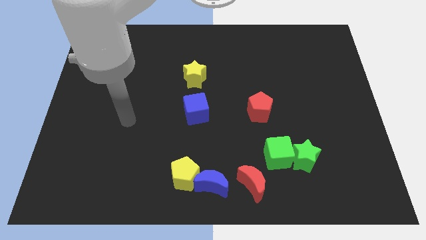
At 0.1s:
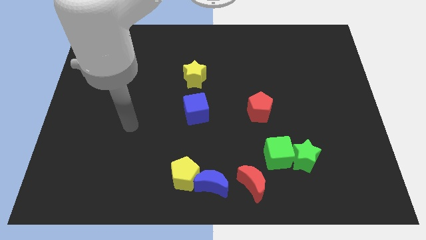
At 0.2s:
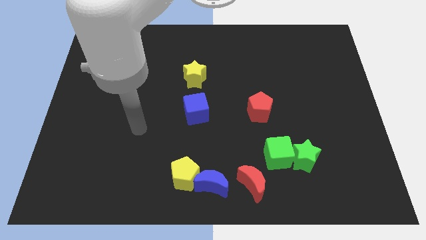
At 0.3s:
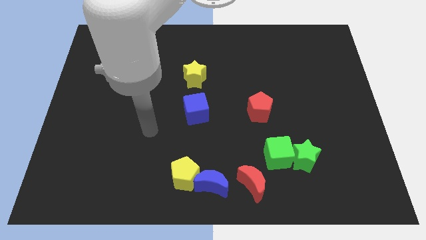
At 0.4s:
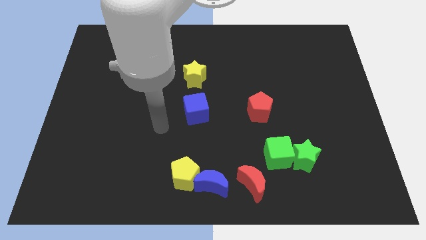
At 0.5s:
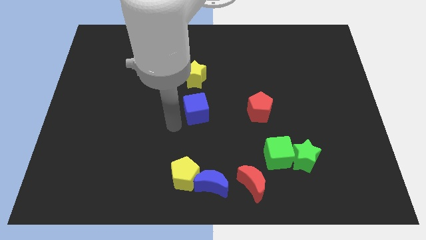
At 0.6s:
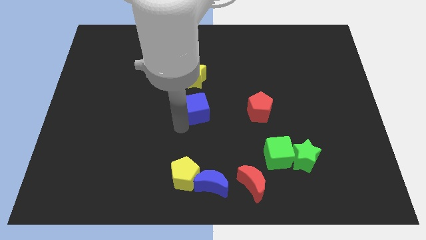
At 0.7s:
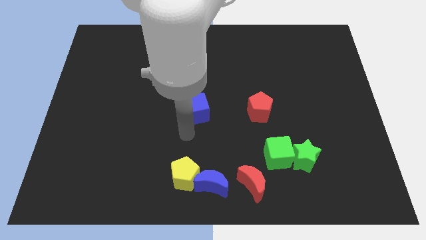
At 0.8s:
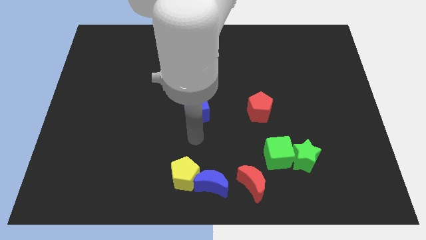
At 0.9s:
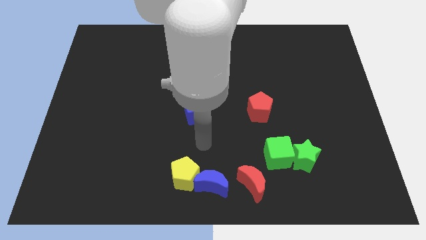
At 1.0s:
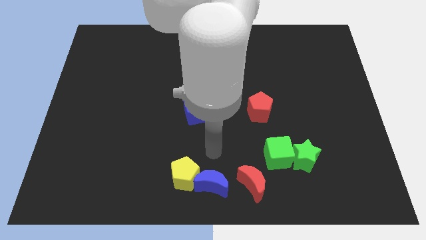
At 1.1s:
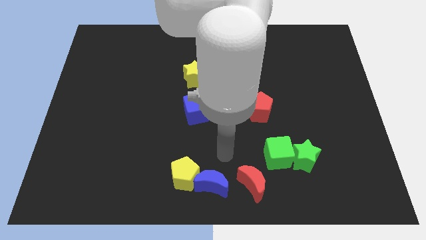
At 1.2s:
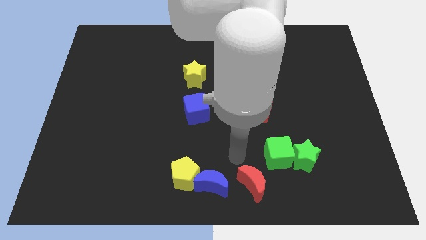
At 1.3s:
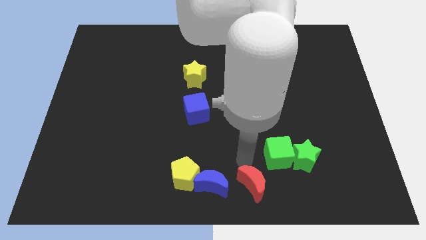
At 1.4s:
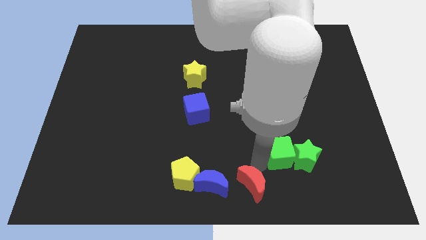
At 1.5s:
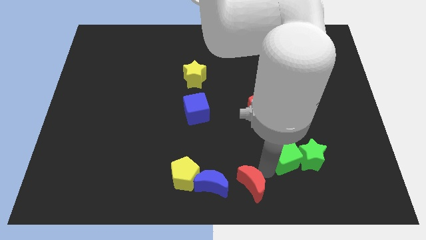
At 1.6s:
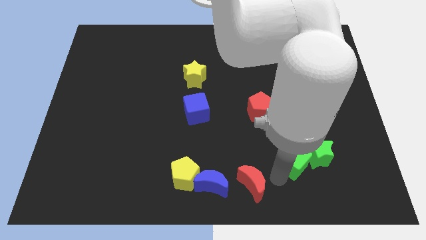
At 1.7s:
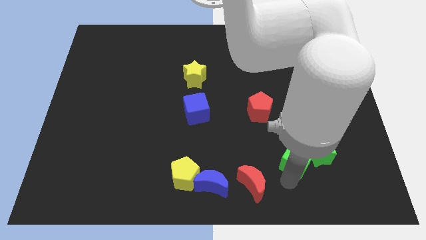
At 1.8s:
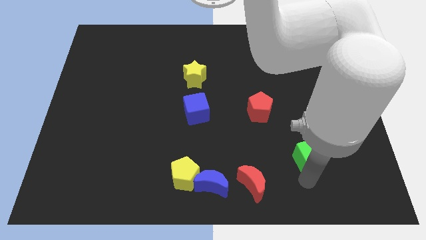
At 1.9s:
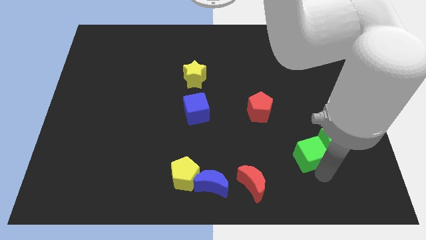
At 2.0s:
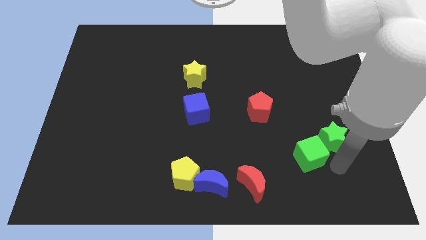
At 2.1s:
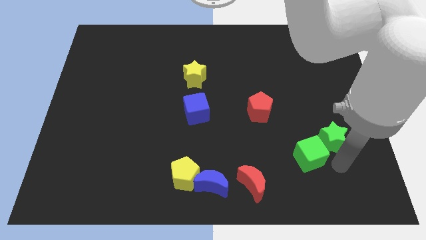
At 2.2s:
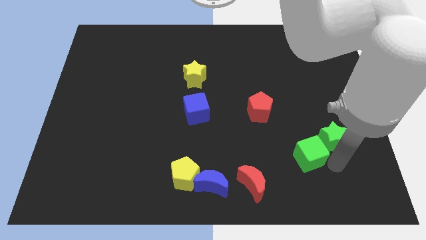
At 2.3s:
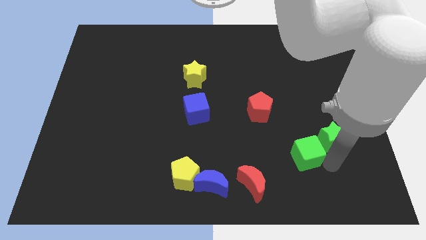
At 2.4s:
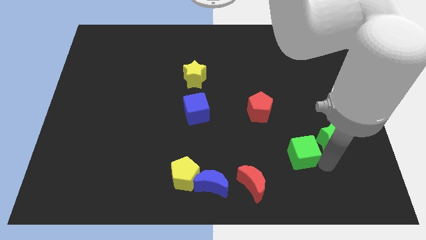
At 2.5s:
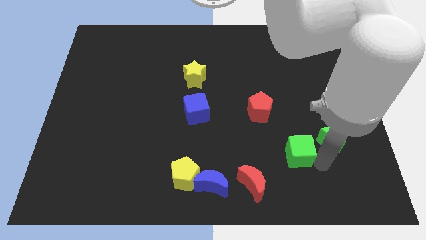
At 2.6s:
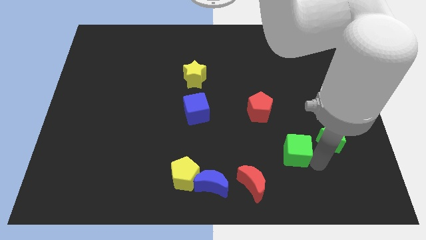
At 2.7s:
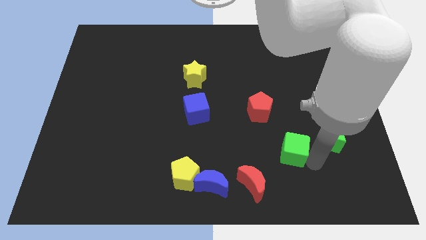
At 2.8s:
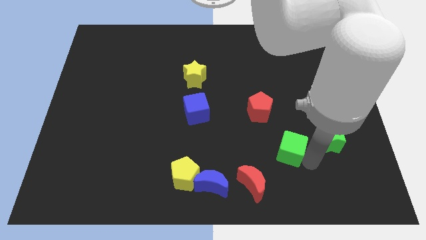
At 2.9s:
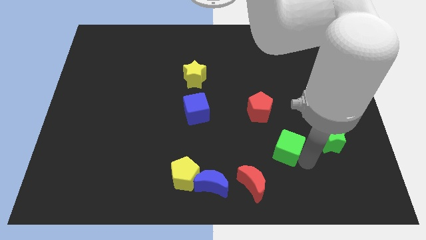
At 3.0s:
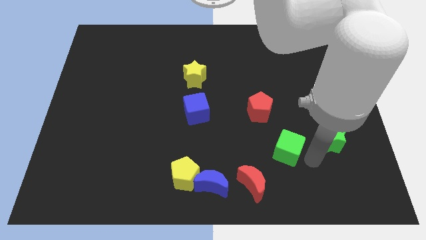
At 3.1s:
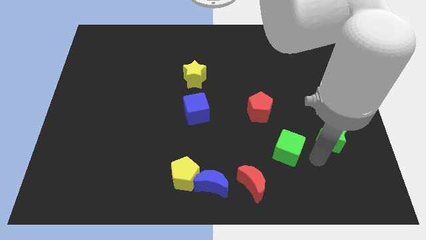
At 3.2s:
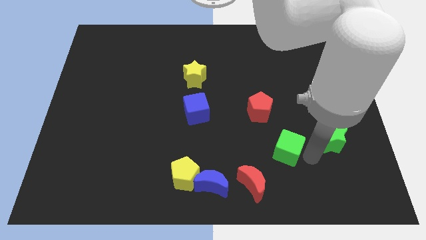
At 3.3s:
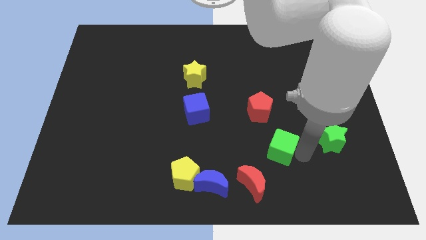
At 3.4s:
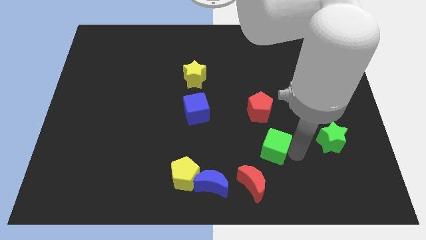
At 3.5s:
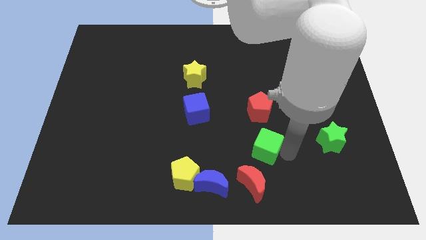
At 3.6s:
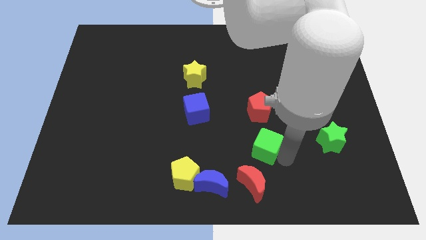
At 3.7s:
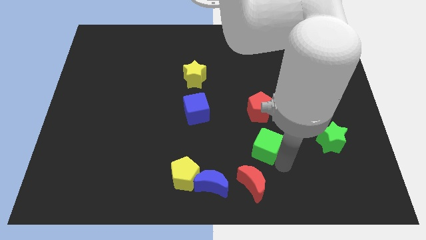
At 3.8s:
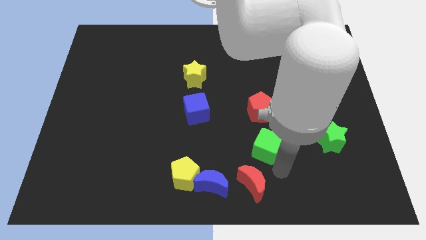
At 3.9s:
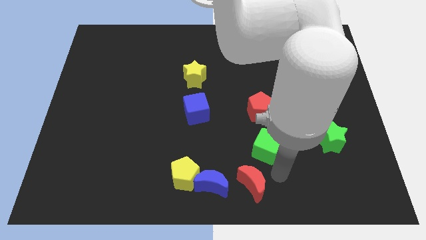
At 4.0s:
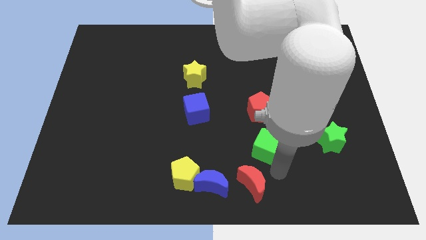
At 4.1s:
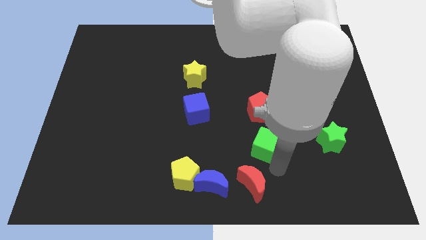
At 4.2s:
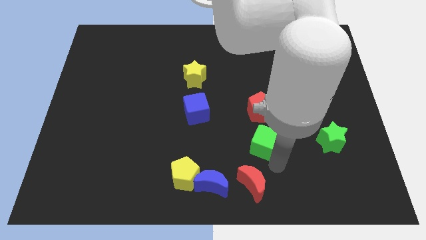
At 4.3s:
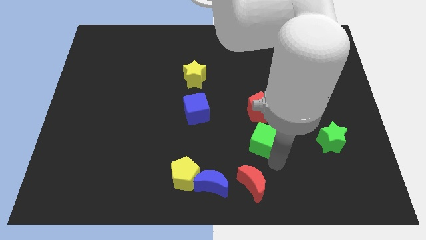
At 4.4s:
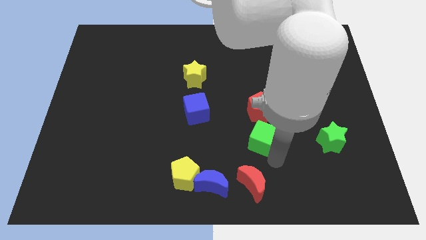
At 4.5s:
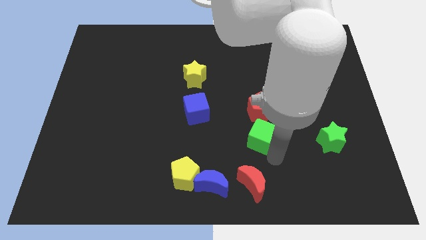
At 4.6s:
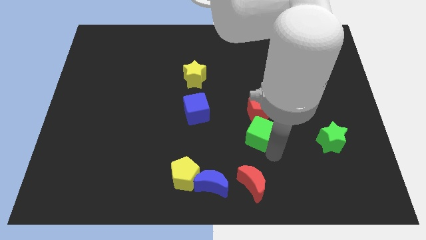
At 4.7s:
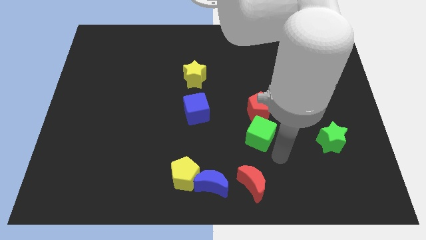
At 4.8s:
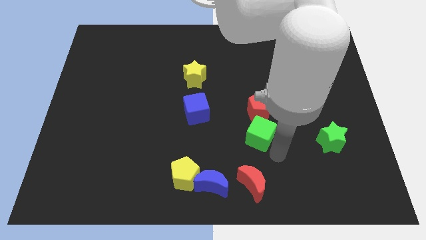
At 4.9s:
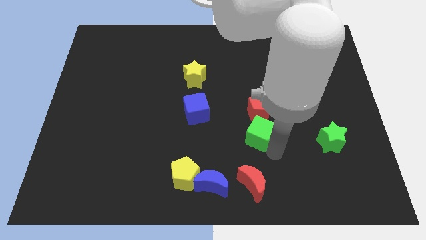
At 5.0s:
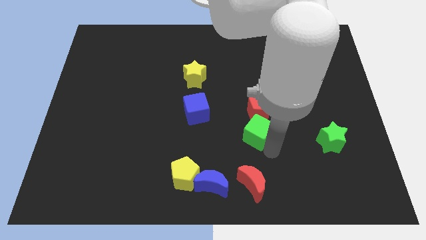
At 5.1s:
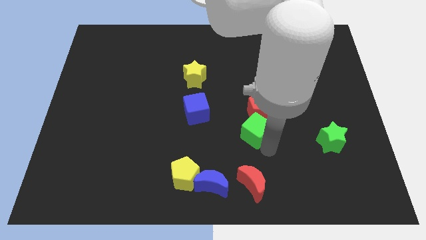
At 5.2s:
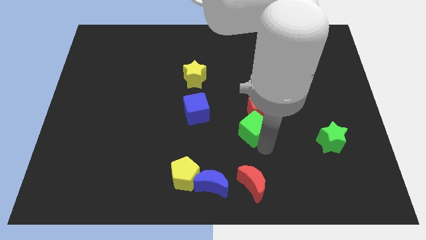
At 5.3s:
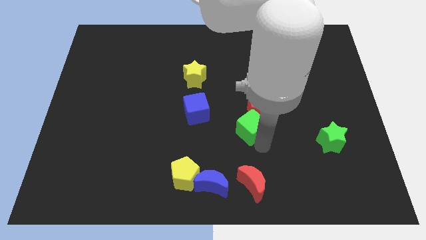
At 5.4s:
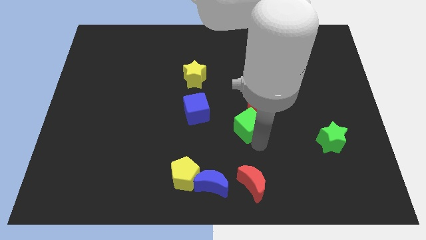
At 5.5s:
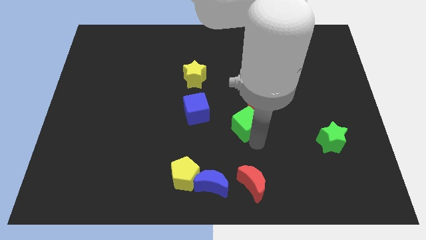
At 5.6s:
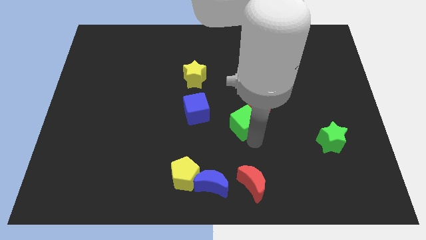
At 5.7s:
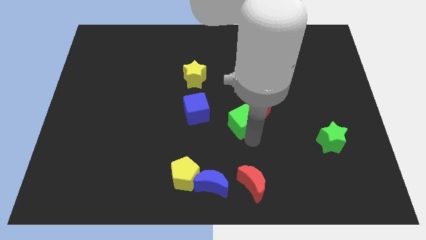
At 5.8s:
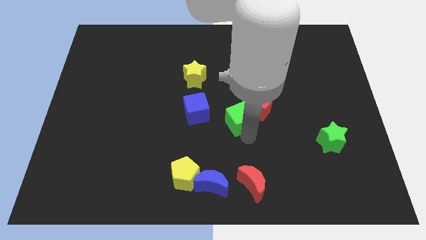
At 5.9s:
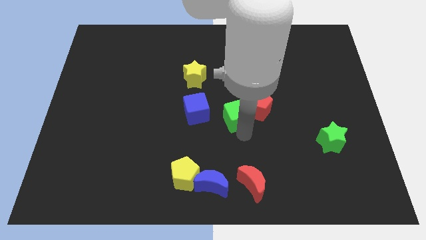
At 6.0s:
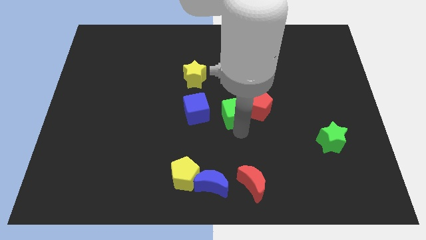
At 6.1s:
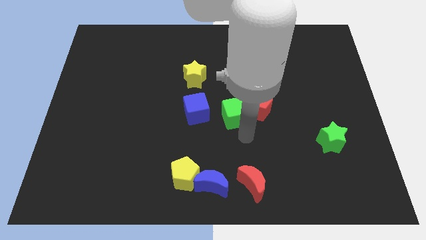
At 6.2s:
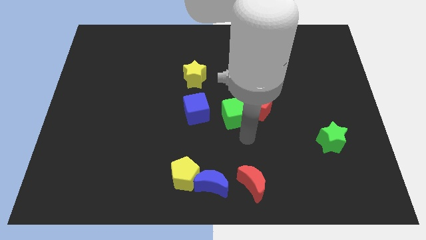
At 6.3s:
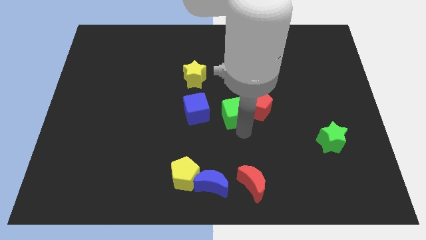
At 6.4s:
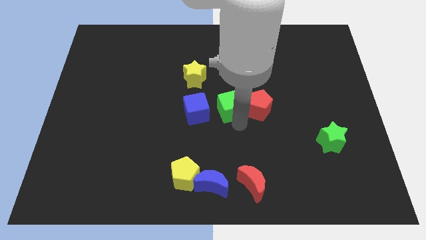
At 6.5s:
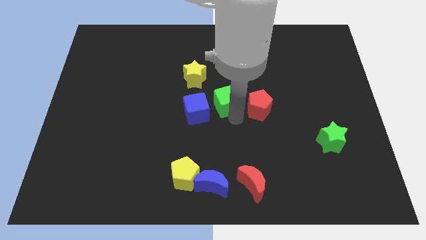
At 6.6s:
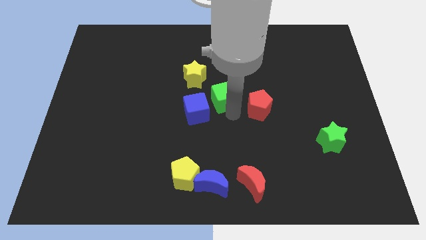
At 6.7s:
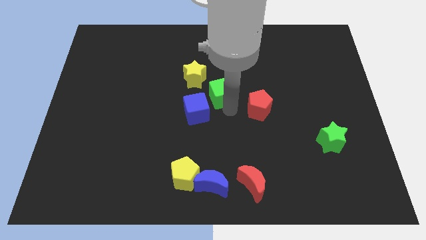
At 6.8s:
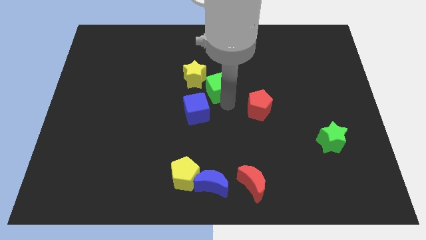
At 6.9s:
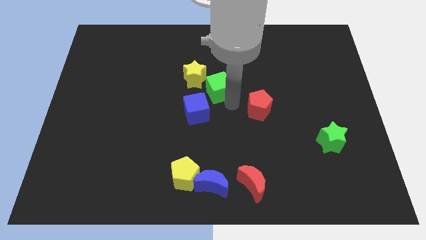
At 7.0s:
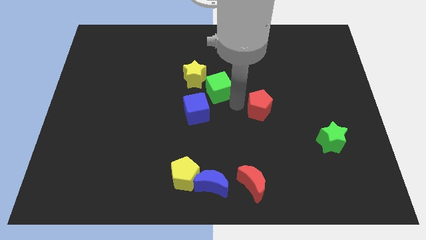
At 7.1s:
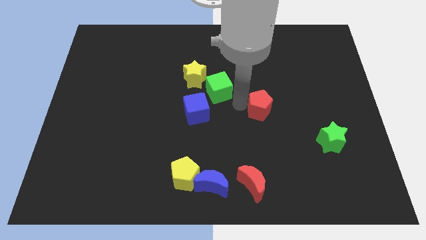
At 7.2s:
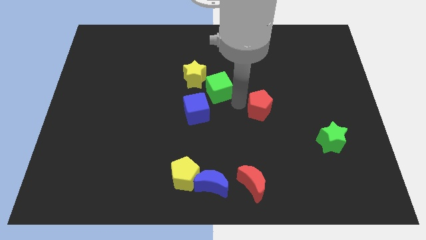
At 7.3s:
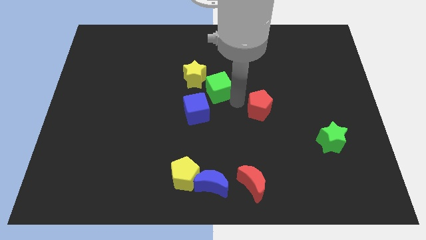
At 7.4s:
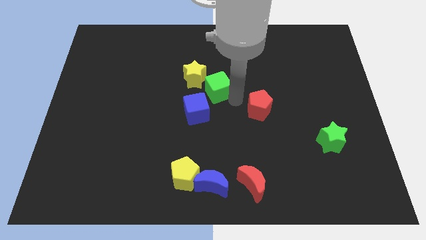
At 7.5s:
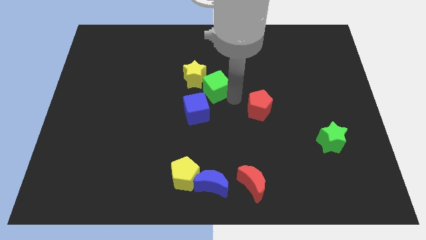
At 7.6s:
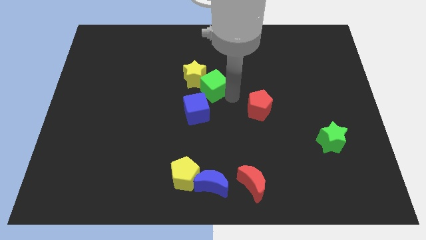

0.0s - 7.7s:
move the green cube towards the yellow star
